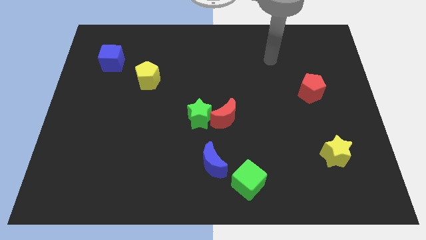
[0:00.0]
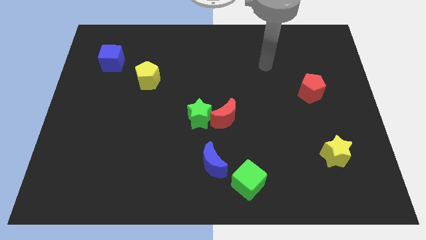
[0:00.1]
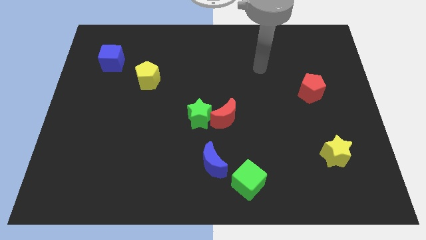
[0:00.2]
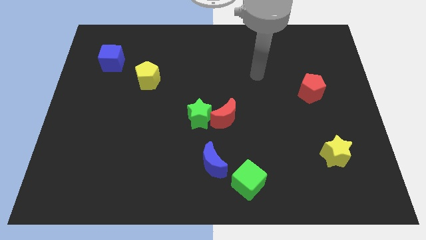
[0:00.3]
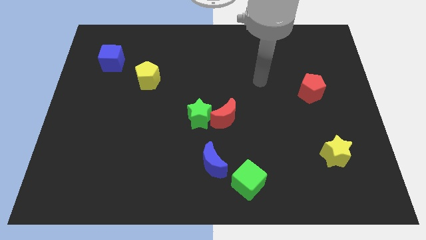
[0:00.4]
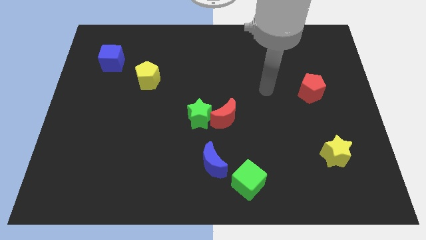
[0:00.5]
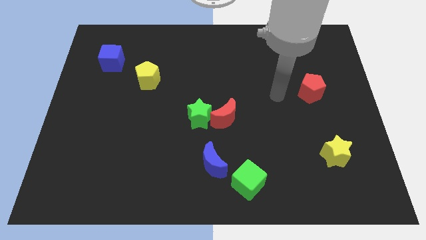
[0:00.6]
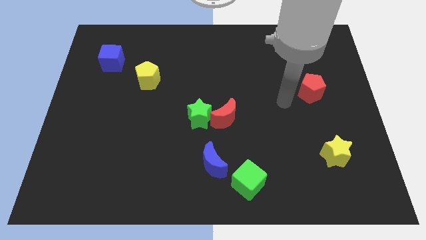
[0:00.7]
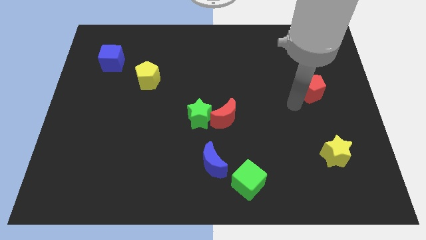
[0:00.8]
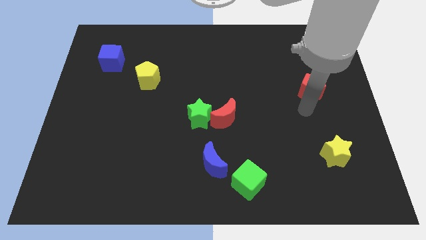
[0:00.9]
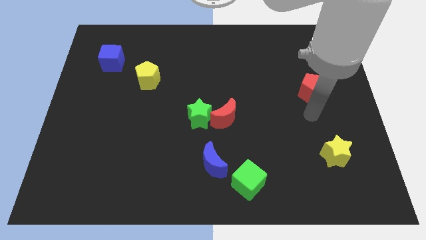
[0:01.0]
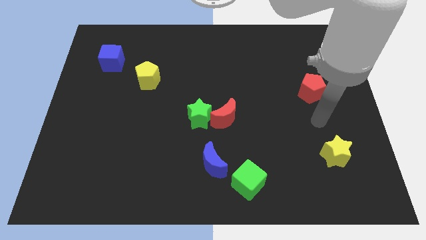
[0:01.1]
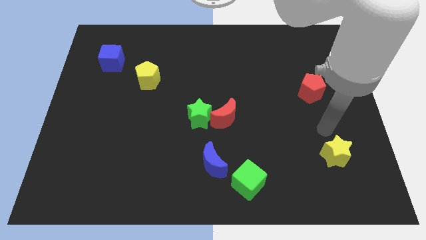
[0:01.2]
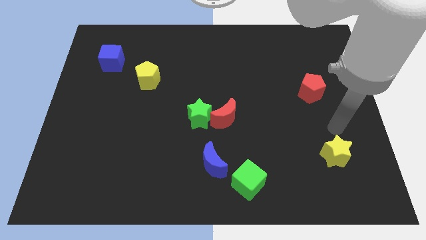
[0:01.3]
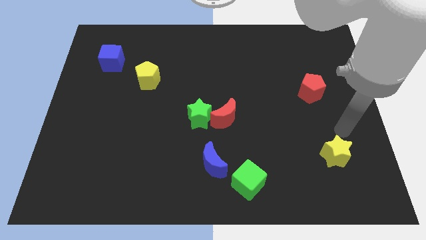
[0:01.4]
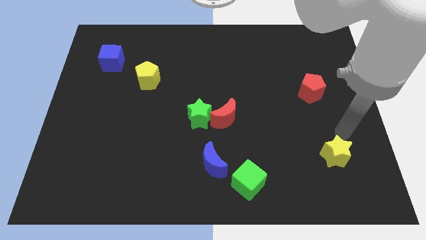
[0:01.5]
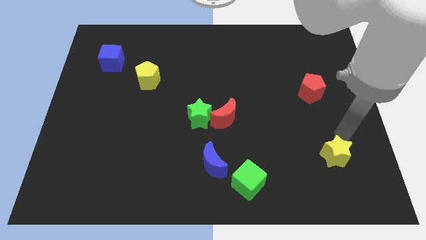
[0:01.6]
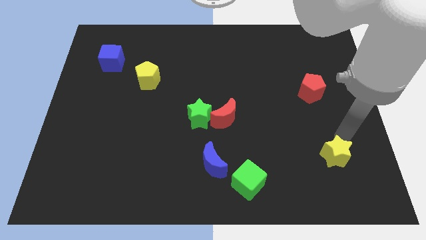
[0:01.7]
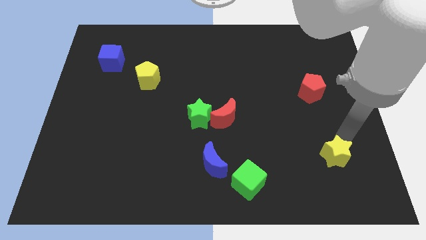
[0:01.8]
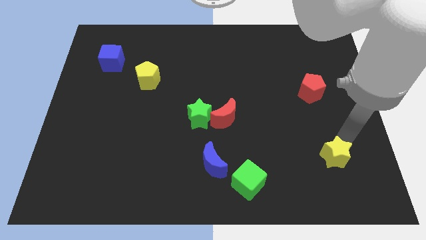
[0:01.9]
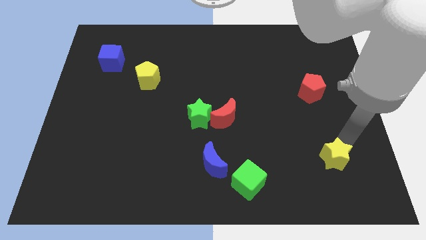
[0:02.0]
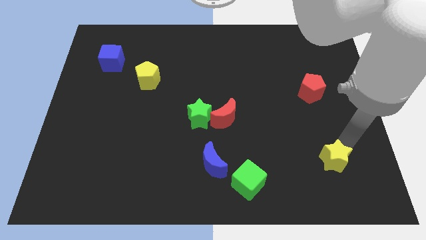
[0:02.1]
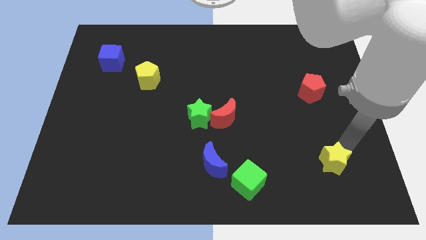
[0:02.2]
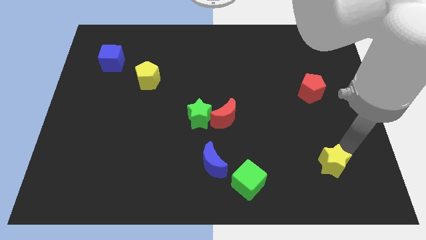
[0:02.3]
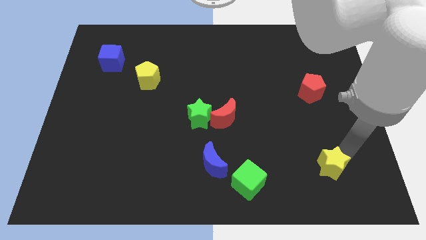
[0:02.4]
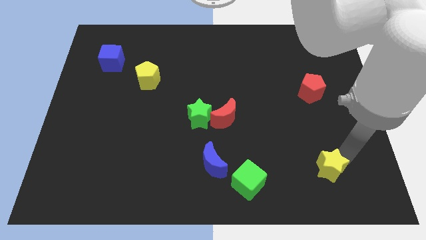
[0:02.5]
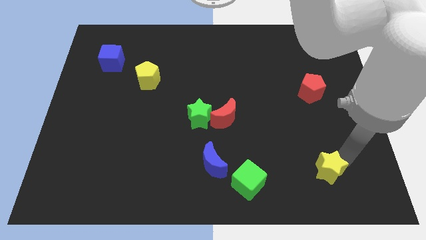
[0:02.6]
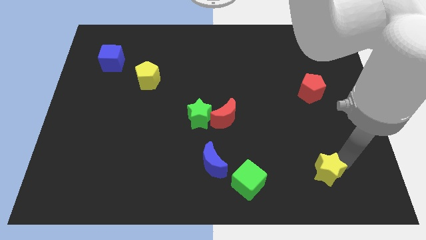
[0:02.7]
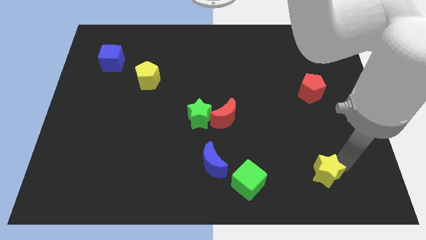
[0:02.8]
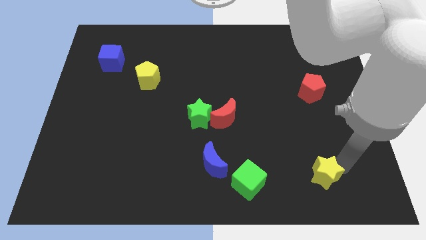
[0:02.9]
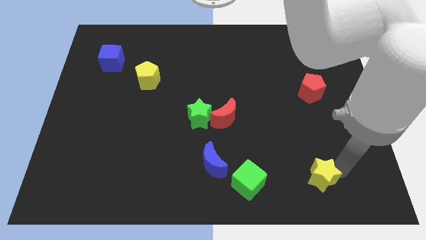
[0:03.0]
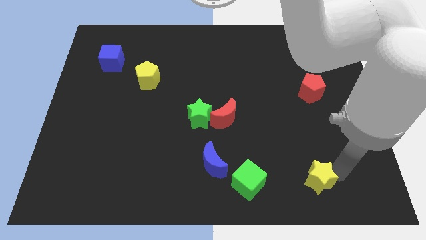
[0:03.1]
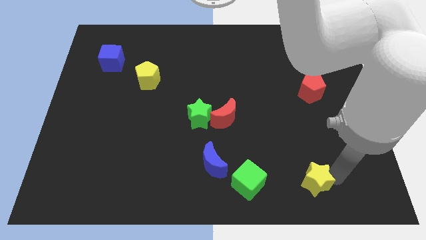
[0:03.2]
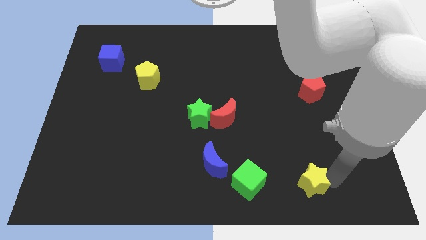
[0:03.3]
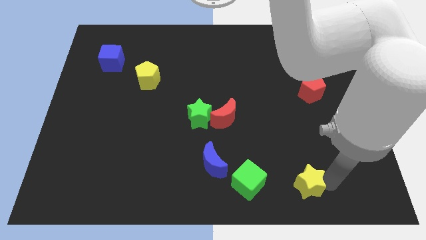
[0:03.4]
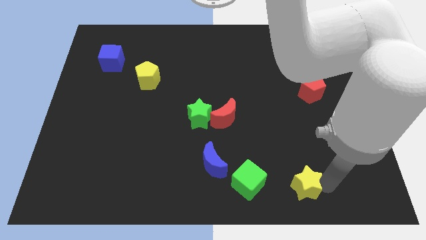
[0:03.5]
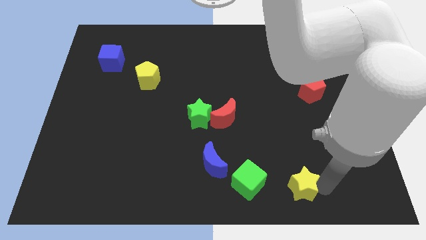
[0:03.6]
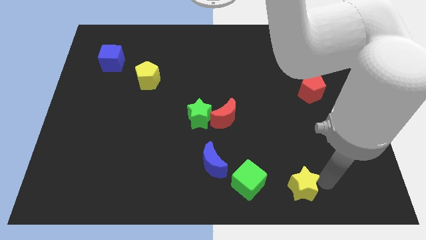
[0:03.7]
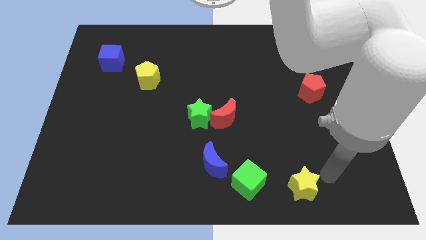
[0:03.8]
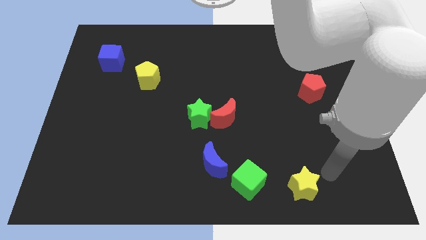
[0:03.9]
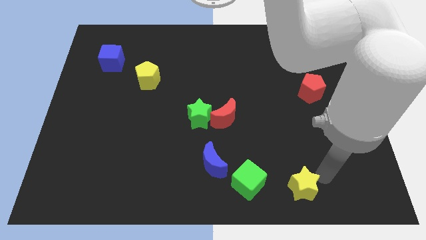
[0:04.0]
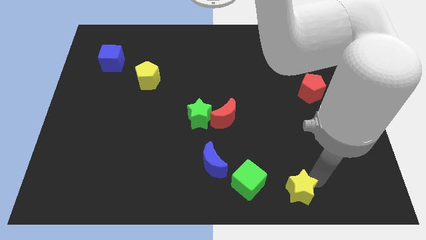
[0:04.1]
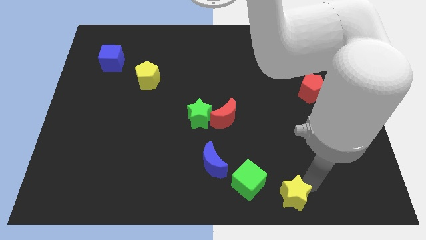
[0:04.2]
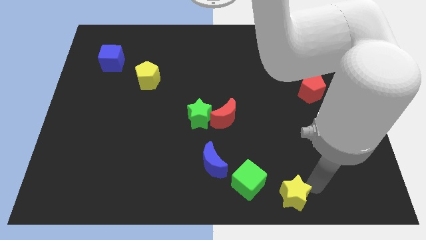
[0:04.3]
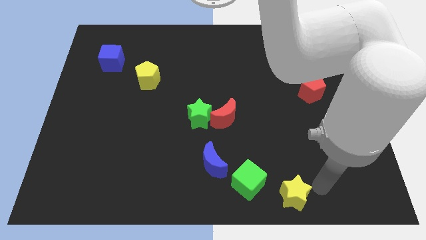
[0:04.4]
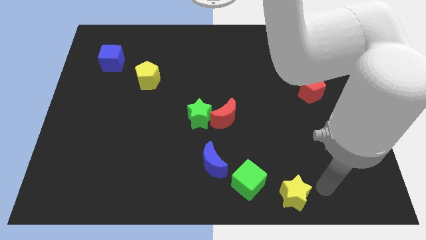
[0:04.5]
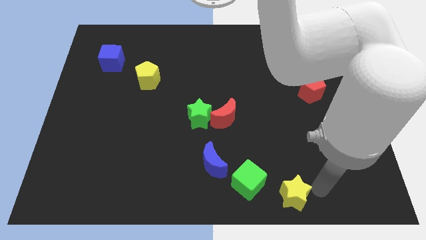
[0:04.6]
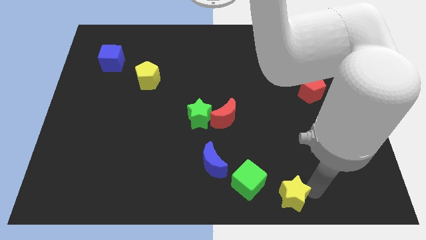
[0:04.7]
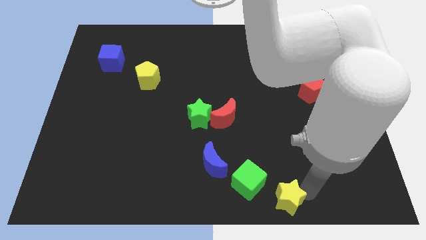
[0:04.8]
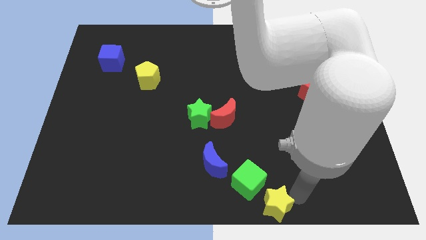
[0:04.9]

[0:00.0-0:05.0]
move the yellow star to the bottom side
